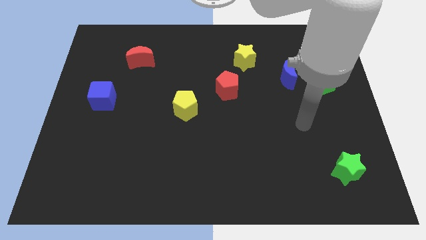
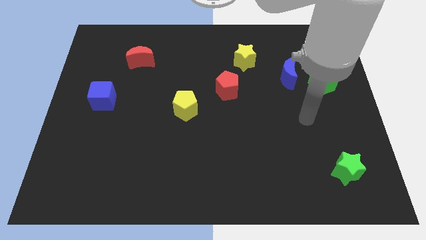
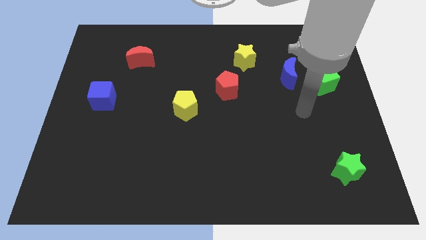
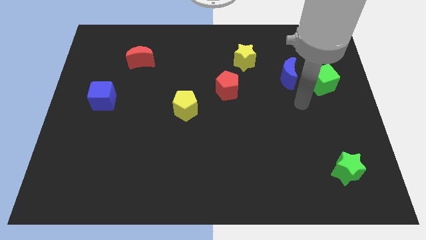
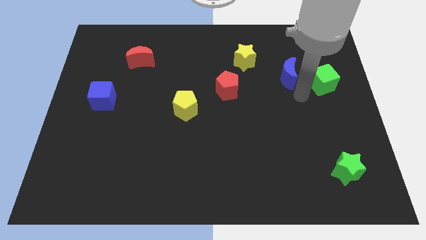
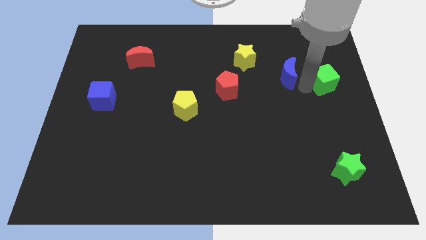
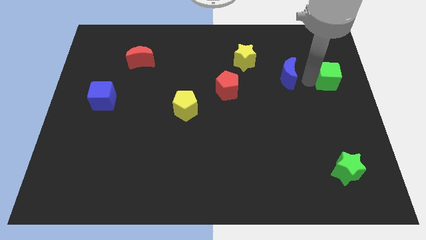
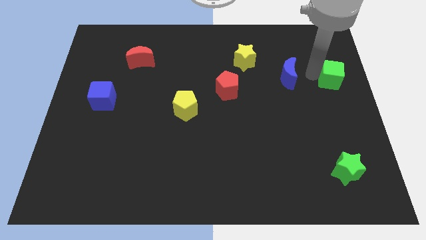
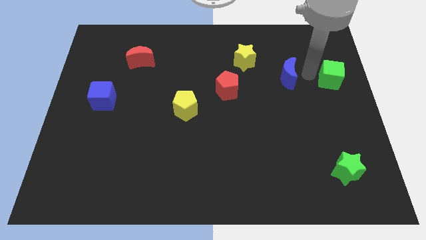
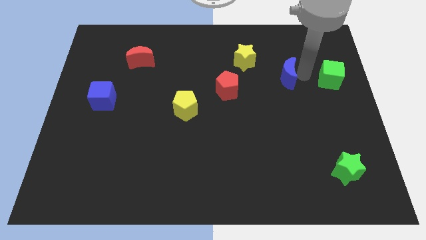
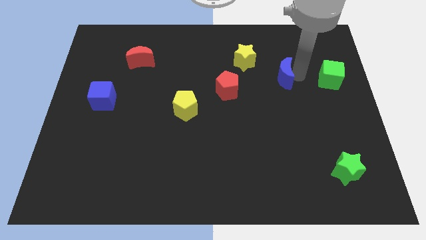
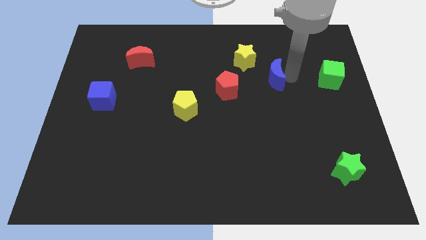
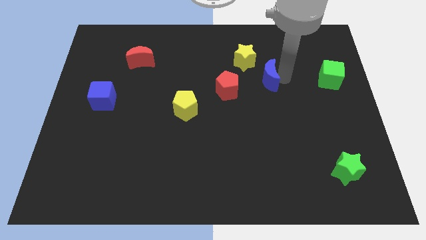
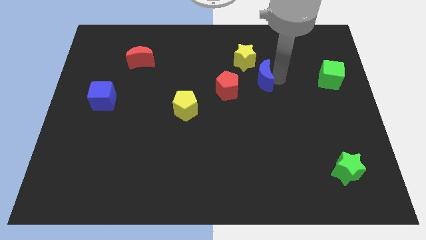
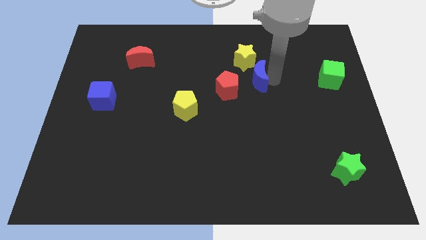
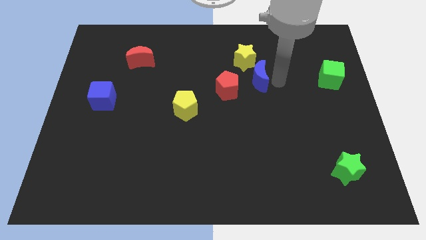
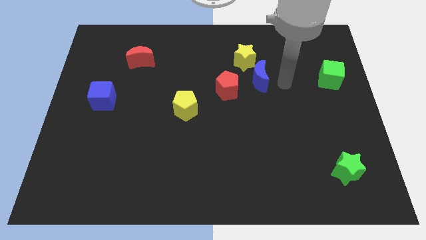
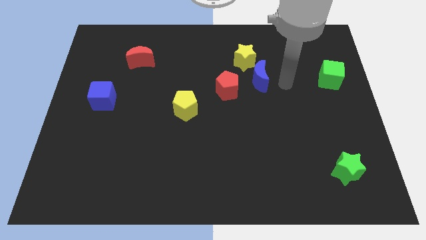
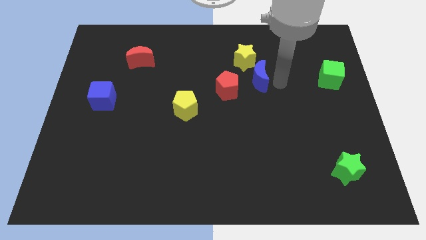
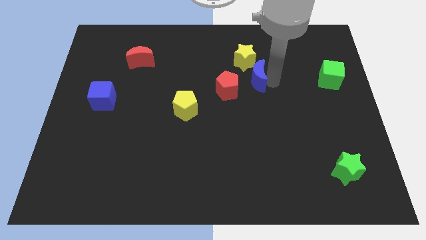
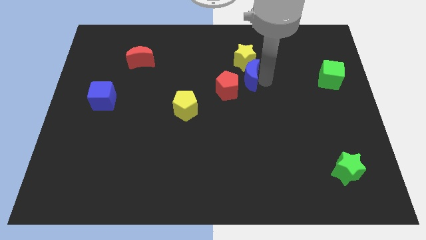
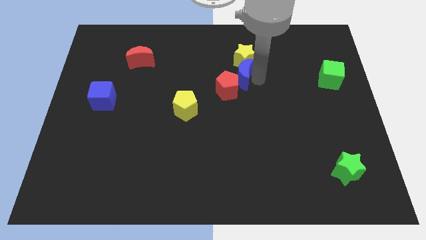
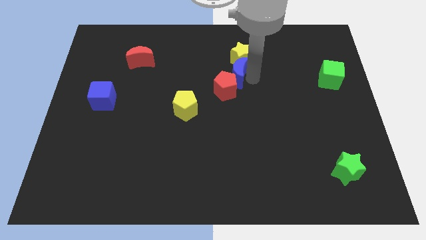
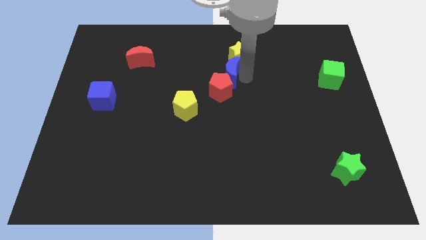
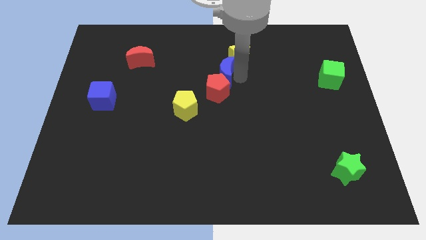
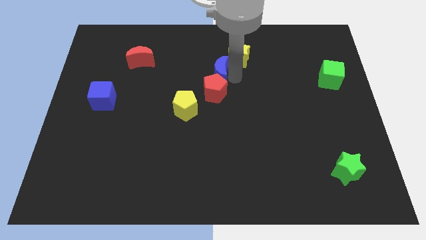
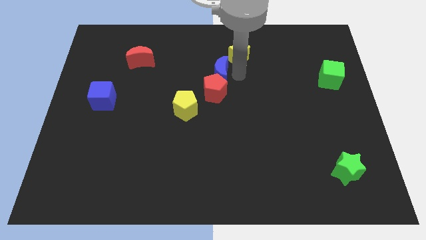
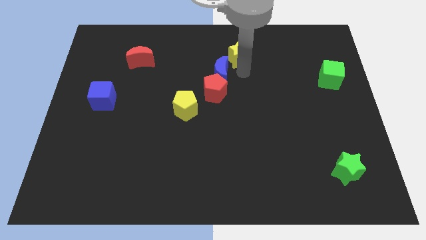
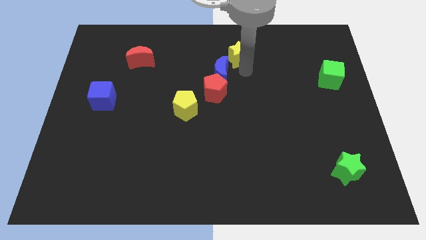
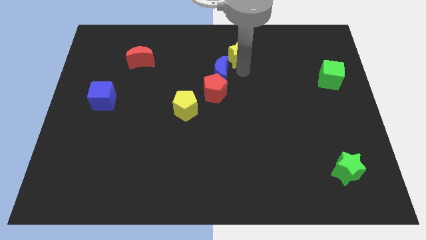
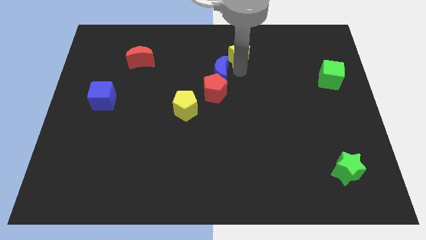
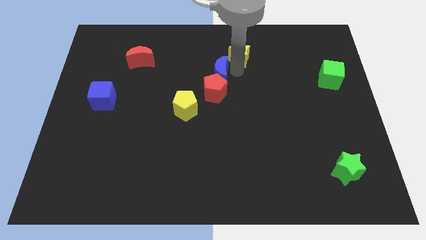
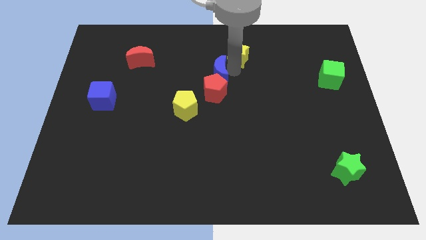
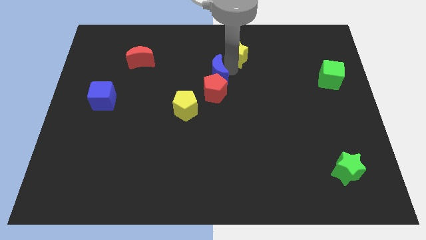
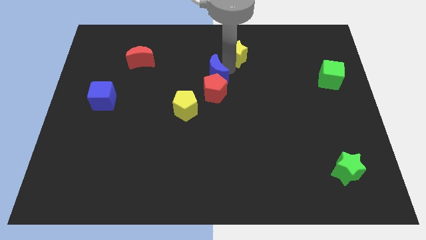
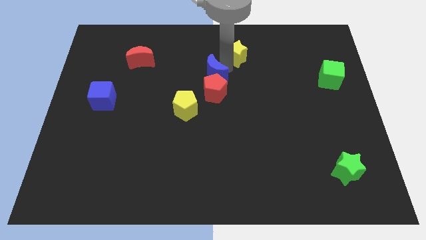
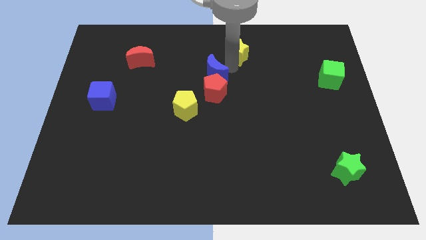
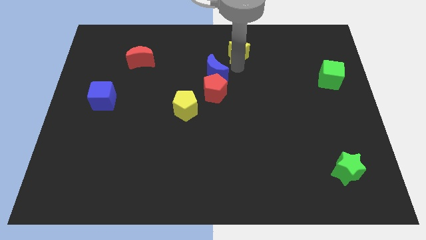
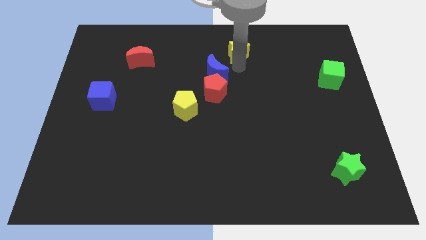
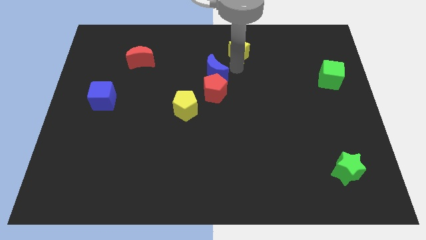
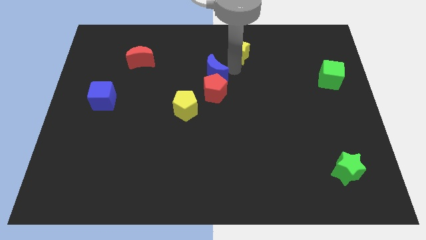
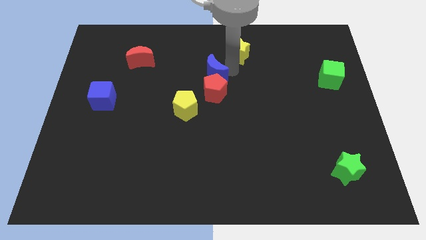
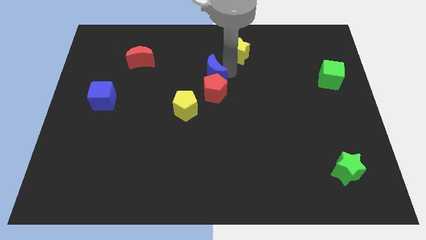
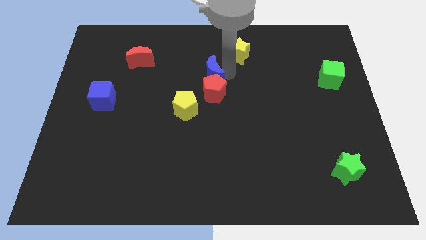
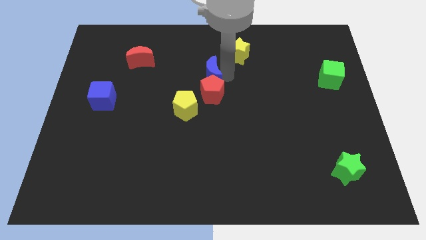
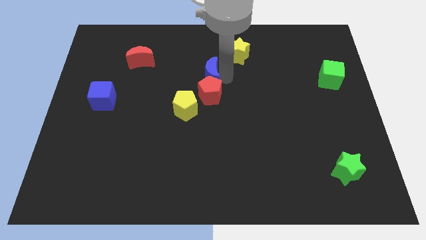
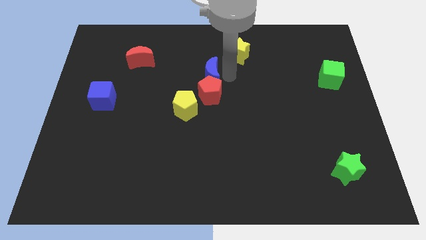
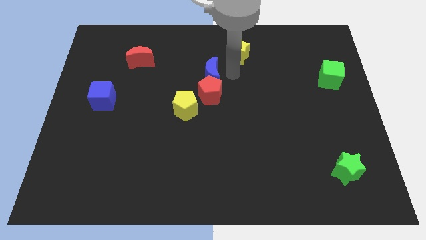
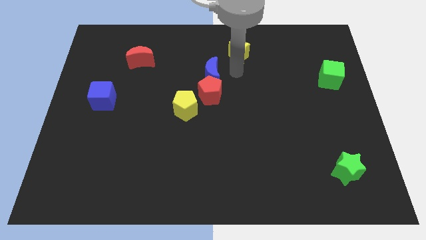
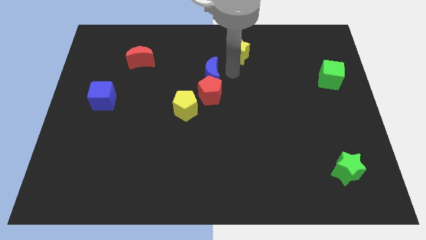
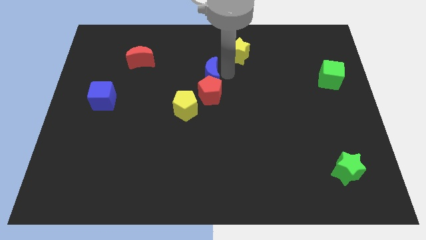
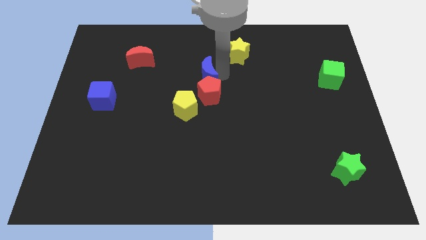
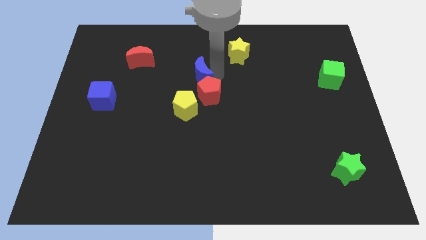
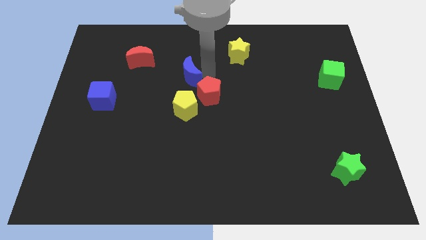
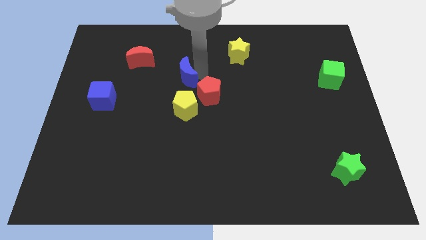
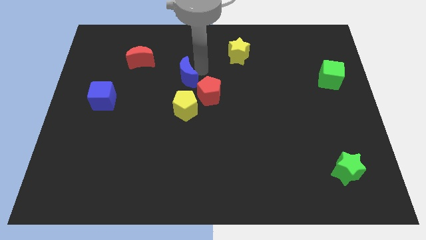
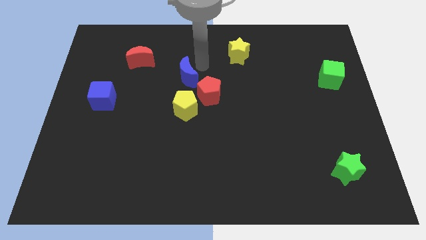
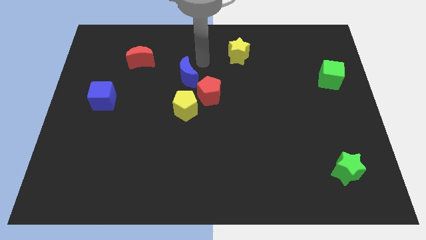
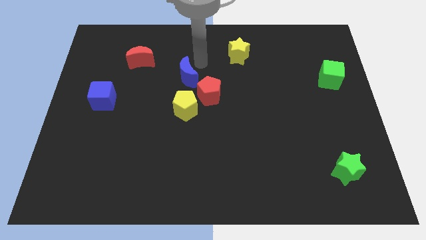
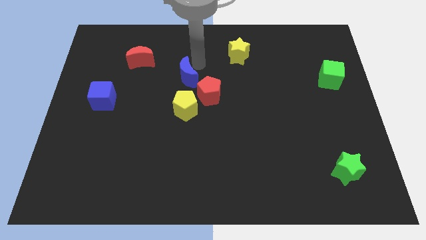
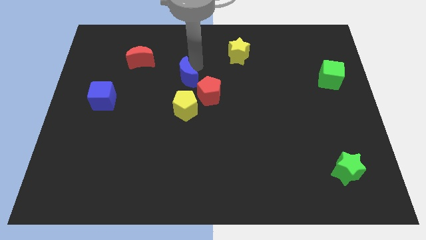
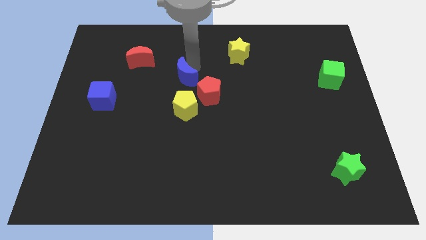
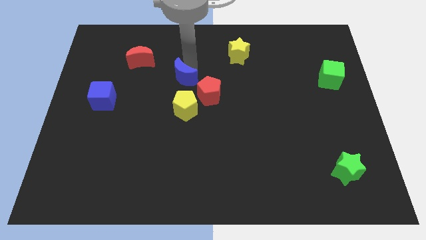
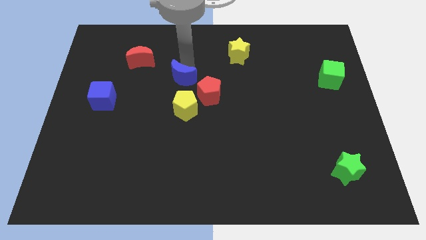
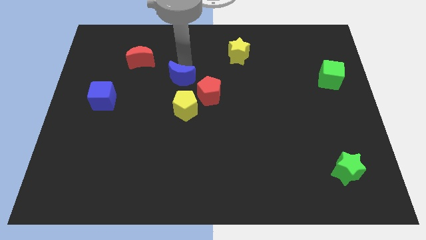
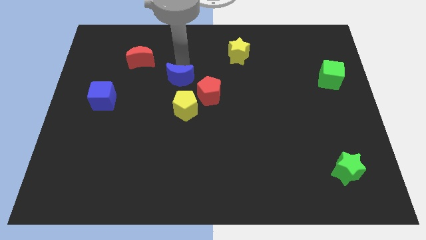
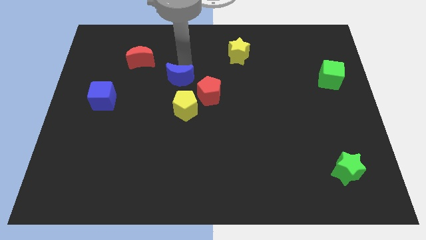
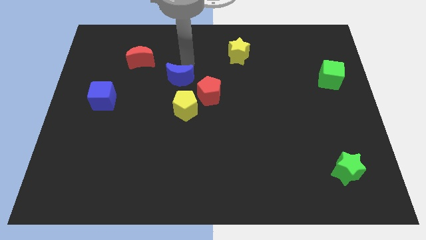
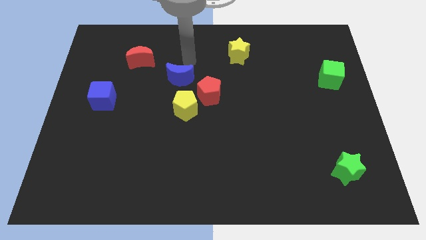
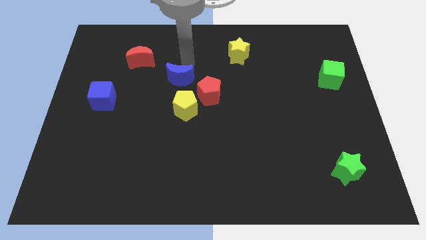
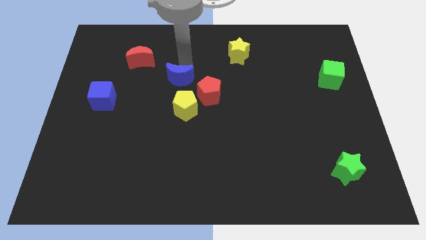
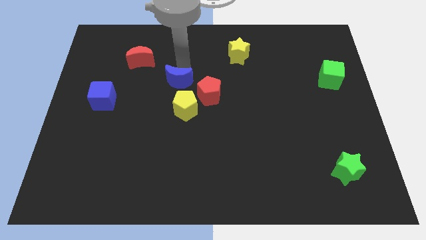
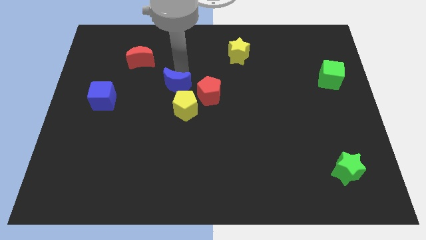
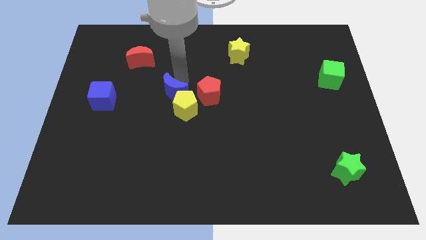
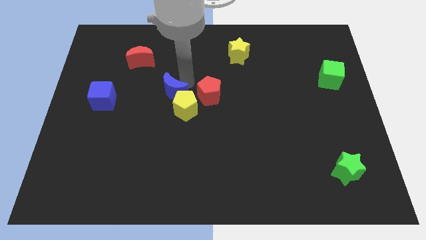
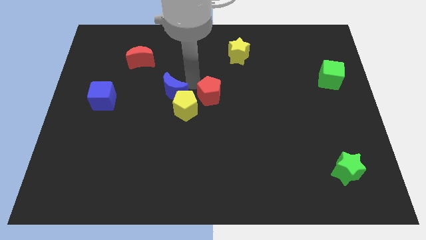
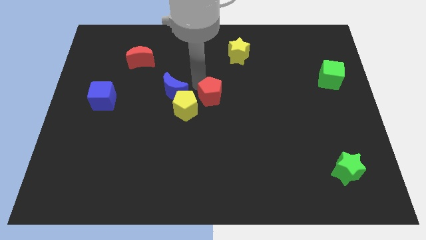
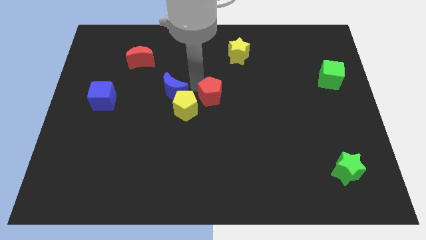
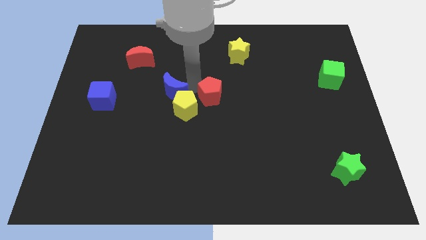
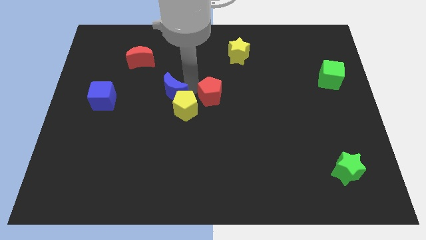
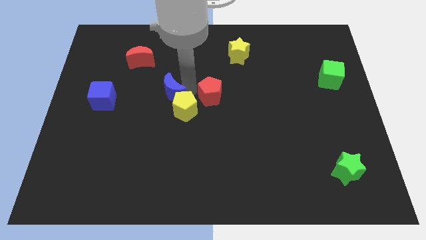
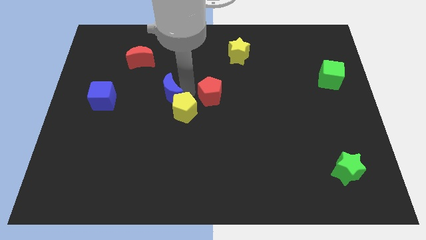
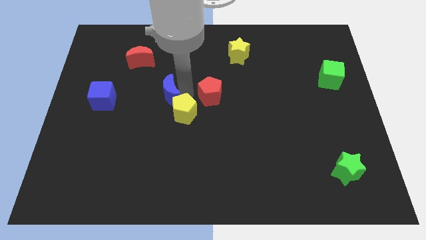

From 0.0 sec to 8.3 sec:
put the blue moon right of the blue cube
